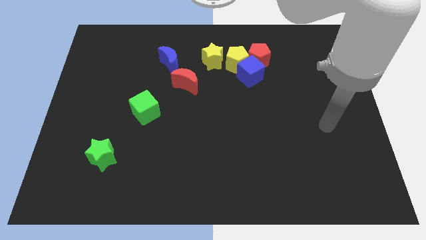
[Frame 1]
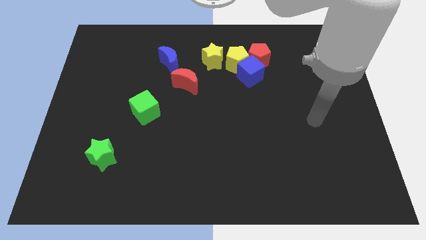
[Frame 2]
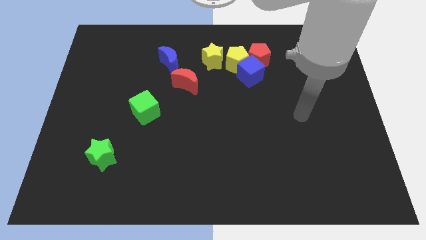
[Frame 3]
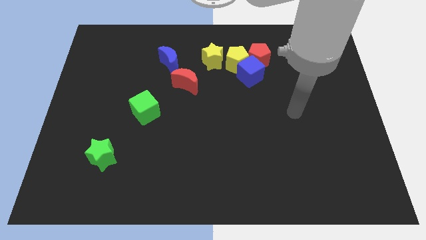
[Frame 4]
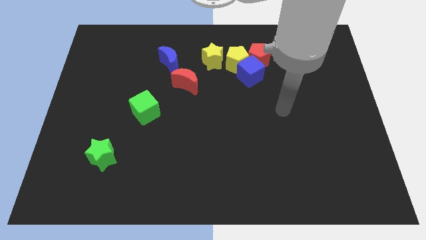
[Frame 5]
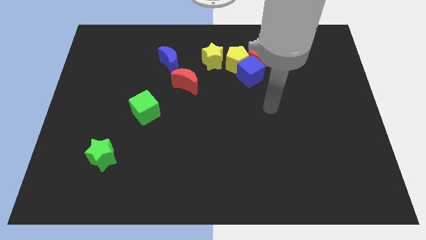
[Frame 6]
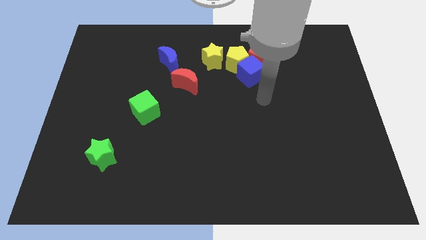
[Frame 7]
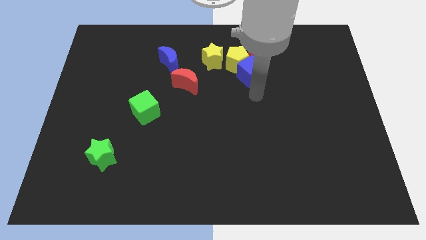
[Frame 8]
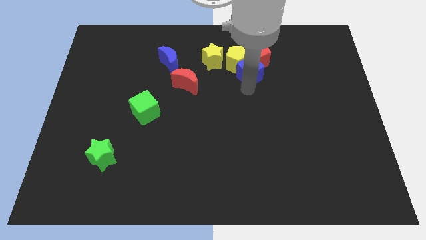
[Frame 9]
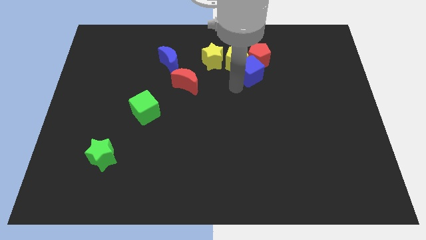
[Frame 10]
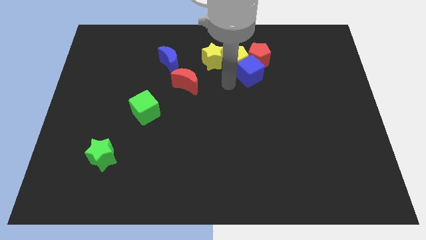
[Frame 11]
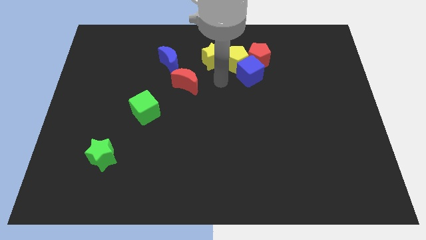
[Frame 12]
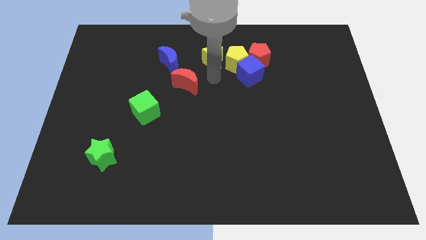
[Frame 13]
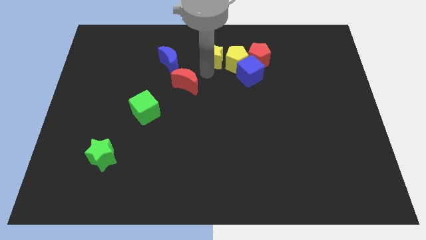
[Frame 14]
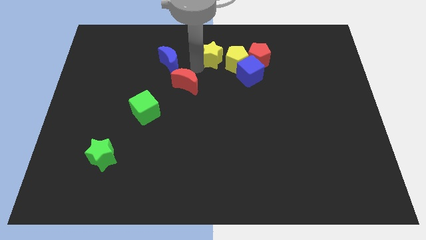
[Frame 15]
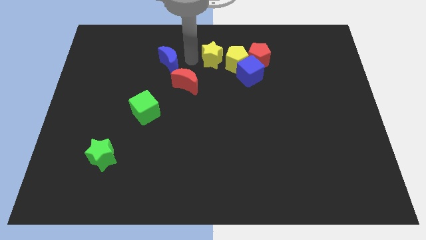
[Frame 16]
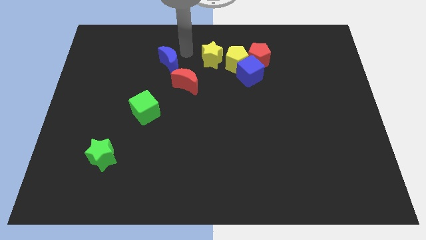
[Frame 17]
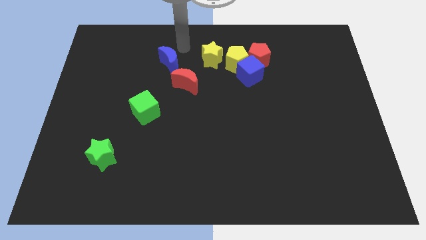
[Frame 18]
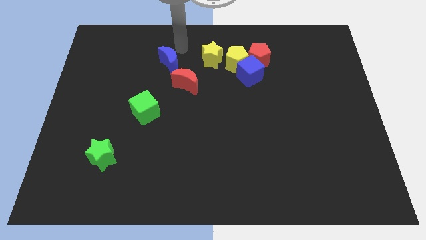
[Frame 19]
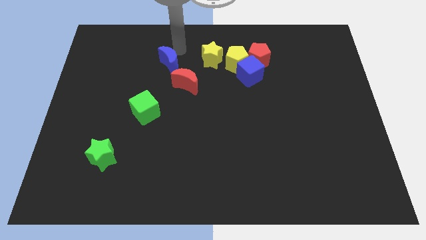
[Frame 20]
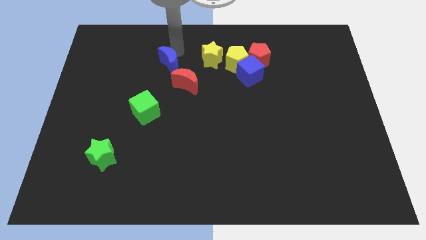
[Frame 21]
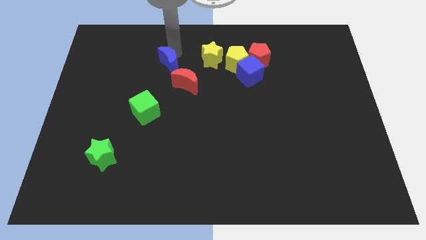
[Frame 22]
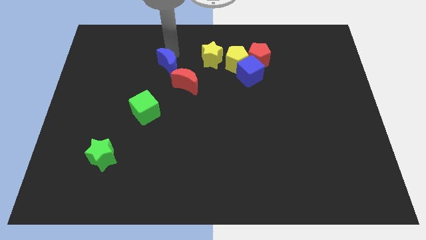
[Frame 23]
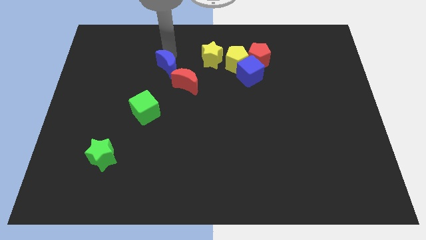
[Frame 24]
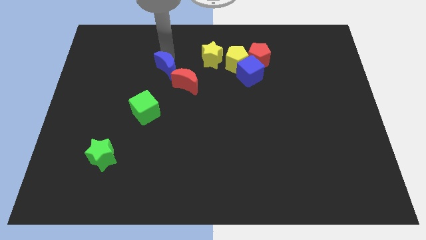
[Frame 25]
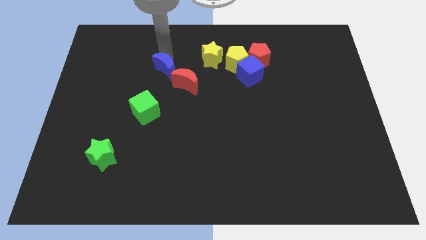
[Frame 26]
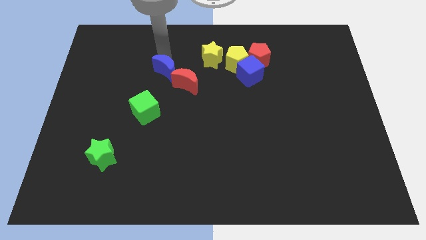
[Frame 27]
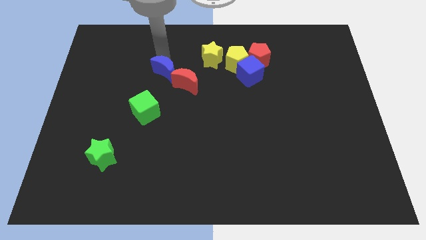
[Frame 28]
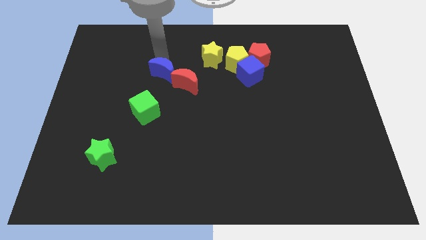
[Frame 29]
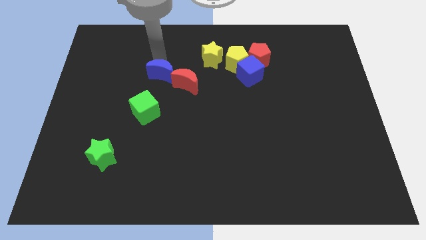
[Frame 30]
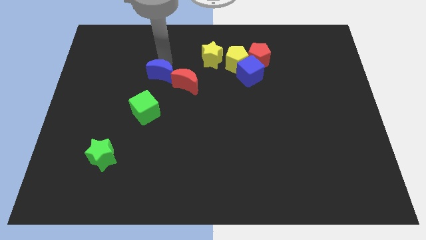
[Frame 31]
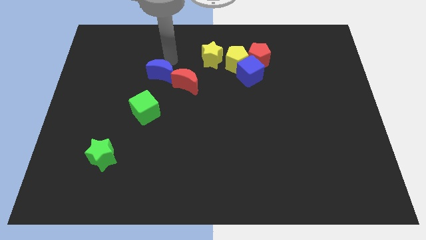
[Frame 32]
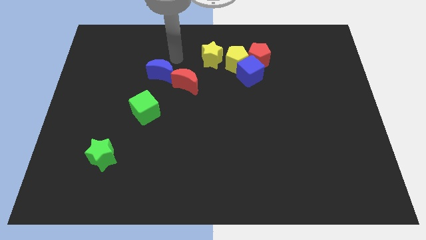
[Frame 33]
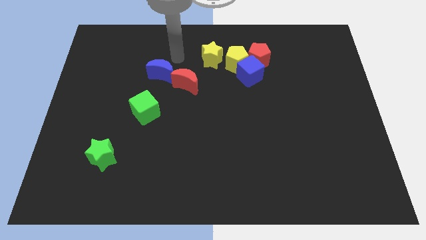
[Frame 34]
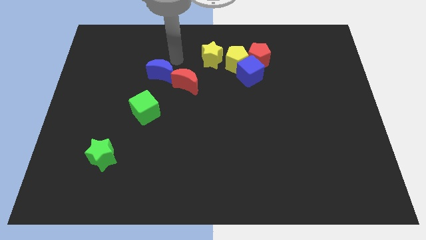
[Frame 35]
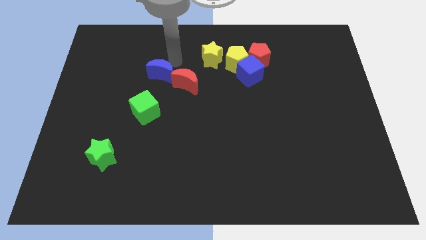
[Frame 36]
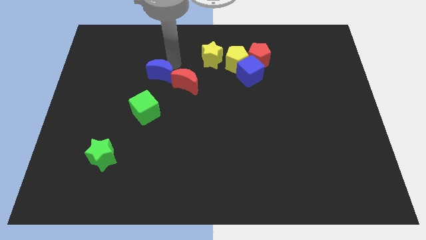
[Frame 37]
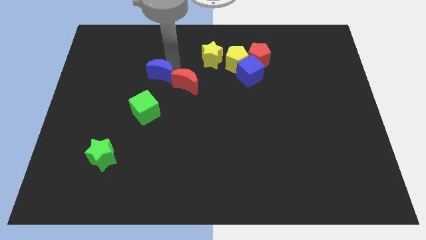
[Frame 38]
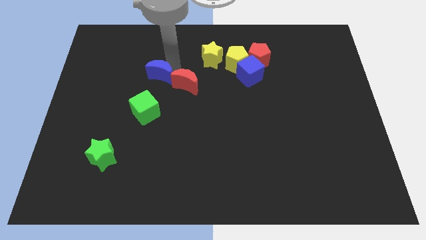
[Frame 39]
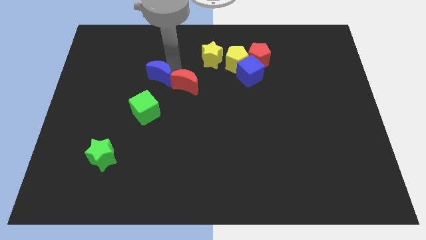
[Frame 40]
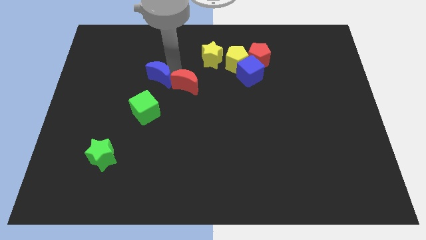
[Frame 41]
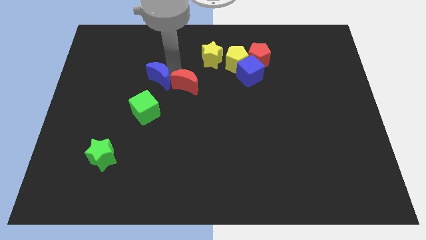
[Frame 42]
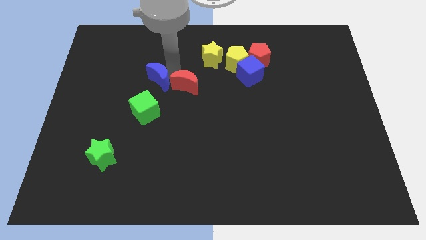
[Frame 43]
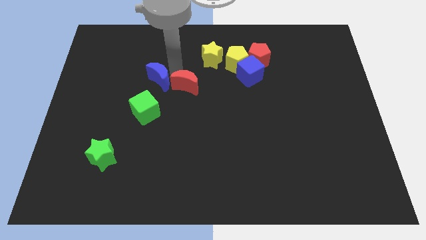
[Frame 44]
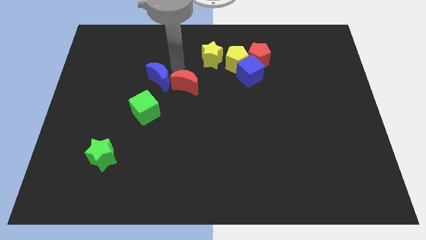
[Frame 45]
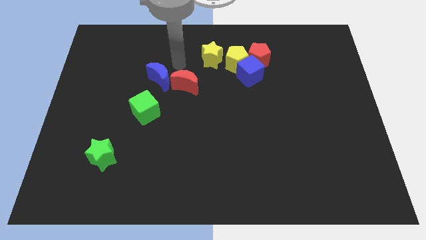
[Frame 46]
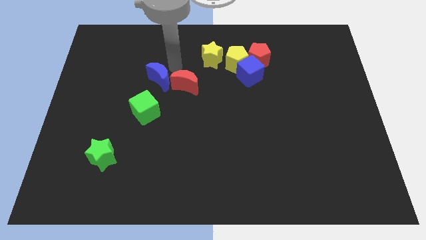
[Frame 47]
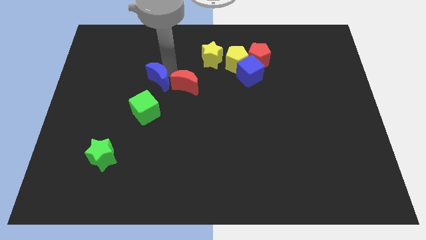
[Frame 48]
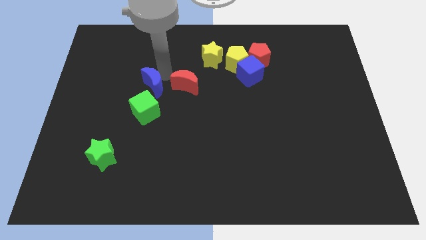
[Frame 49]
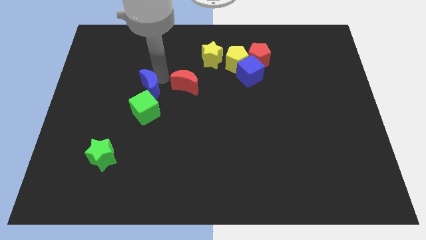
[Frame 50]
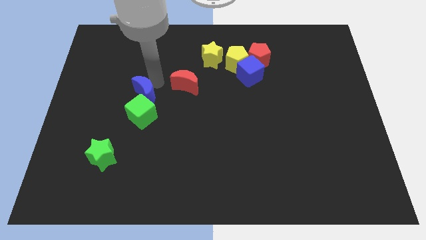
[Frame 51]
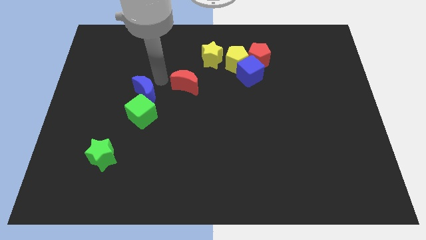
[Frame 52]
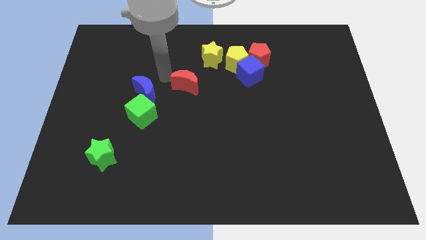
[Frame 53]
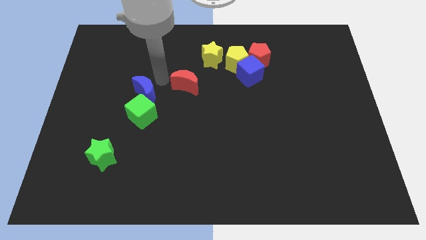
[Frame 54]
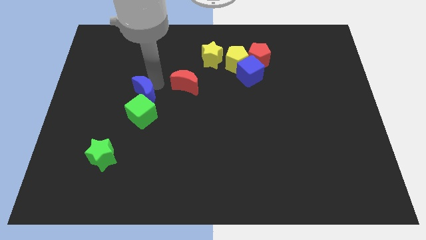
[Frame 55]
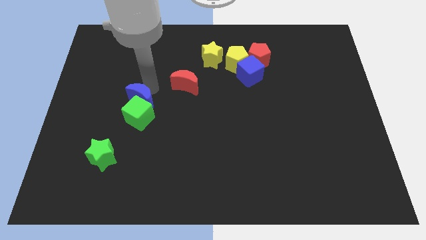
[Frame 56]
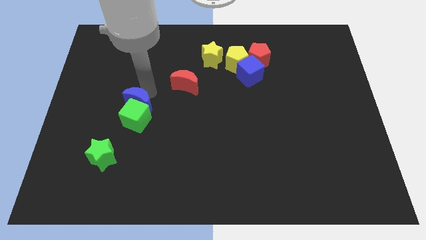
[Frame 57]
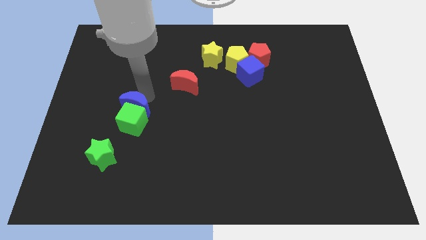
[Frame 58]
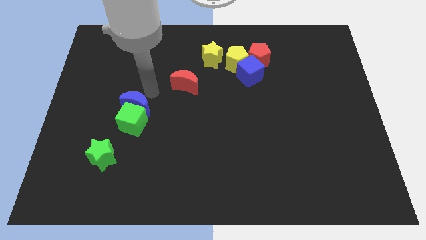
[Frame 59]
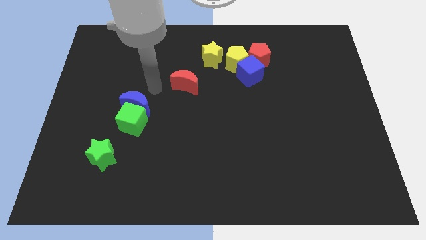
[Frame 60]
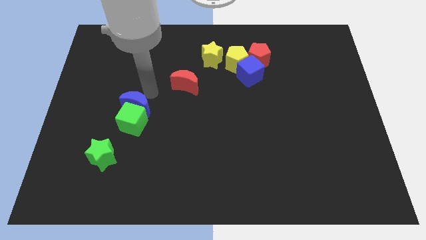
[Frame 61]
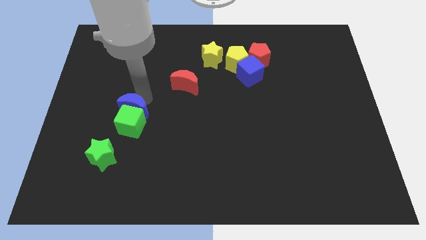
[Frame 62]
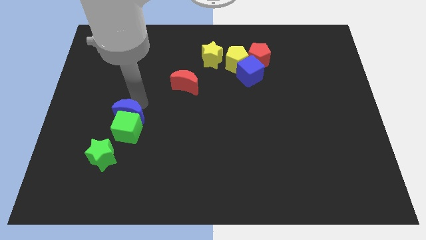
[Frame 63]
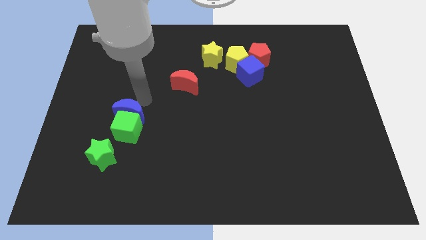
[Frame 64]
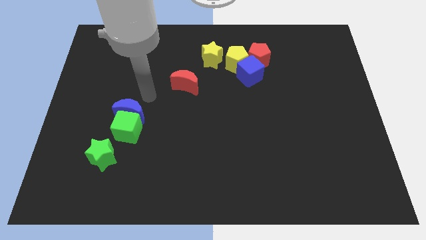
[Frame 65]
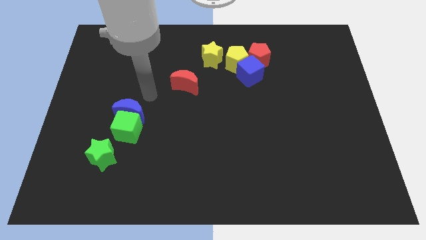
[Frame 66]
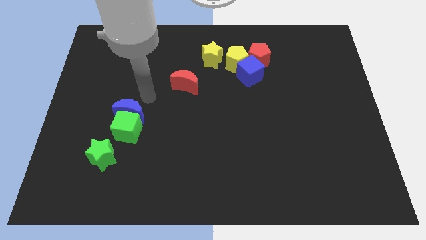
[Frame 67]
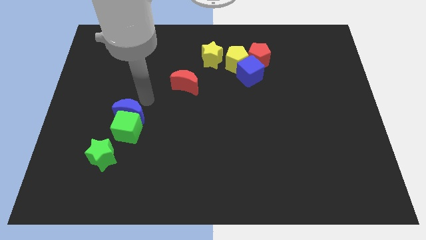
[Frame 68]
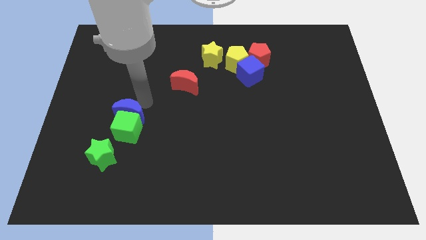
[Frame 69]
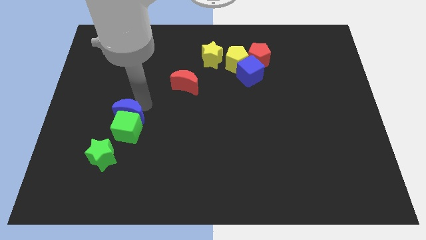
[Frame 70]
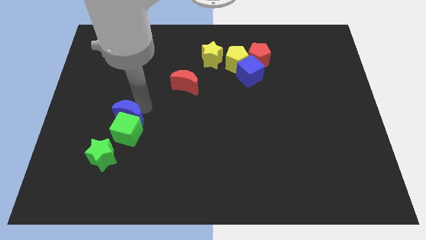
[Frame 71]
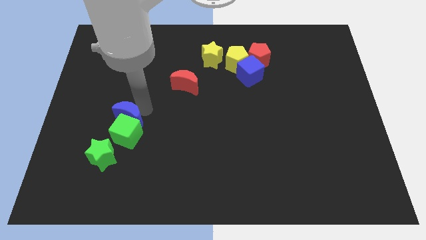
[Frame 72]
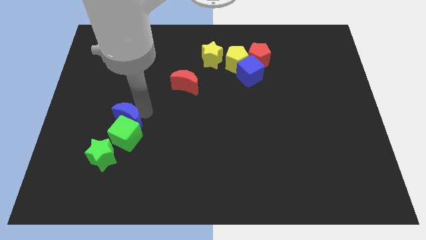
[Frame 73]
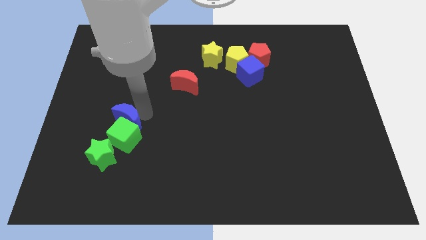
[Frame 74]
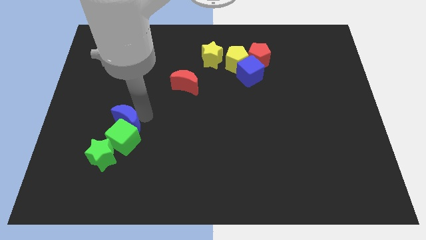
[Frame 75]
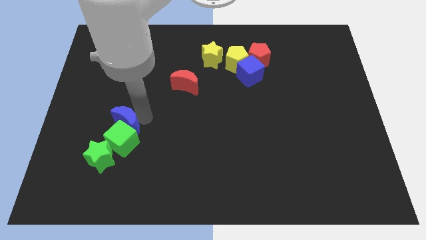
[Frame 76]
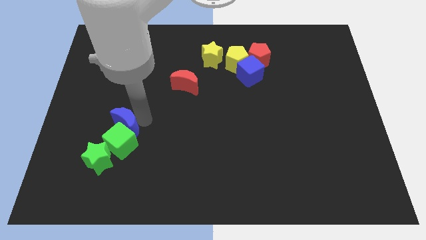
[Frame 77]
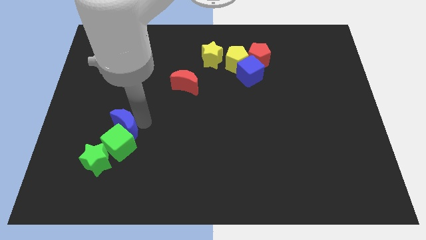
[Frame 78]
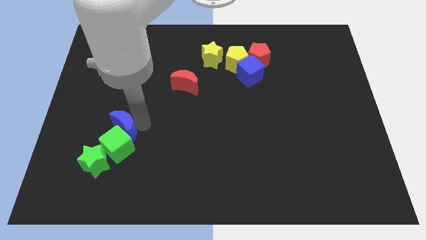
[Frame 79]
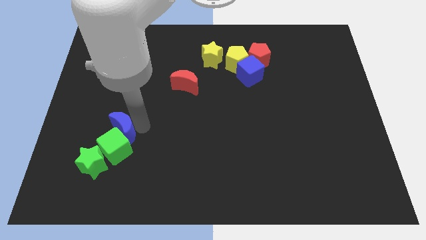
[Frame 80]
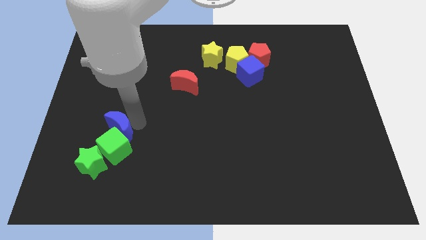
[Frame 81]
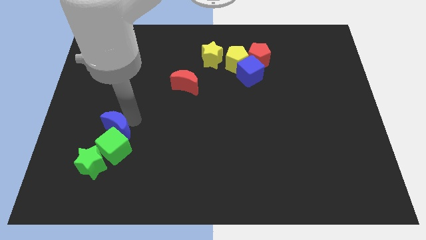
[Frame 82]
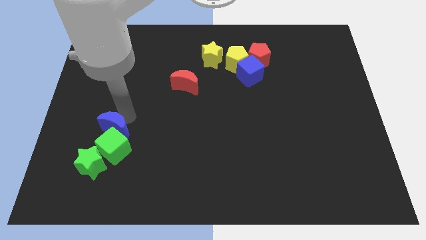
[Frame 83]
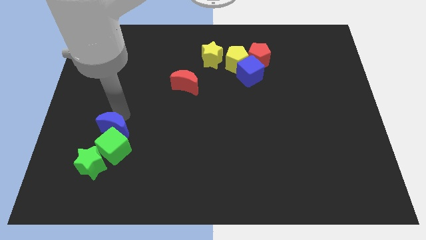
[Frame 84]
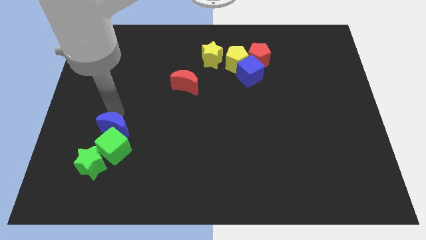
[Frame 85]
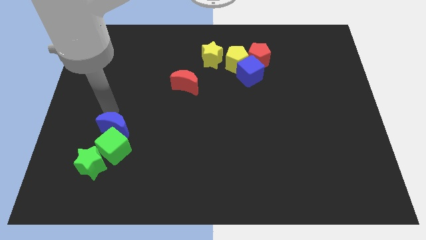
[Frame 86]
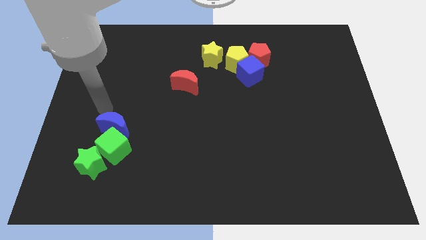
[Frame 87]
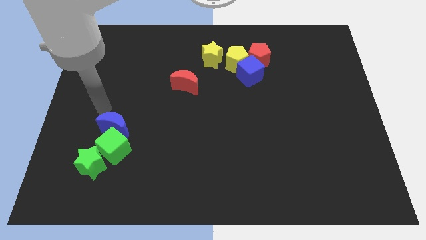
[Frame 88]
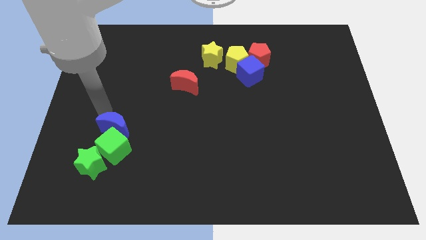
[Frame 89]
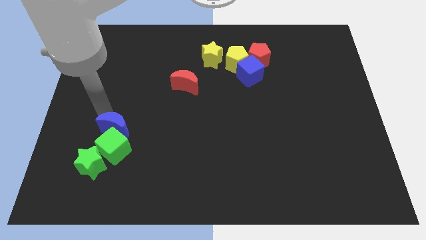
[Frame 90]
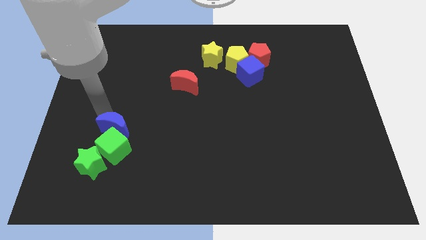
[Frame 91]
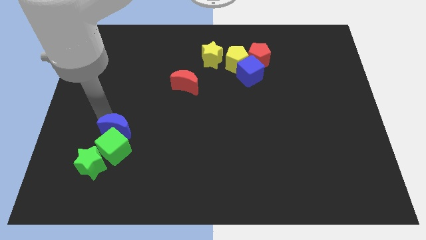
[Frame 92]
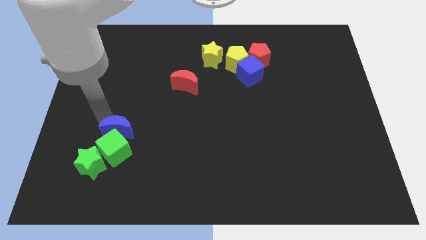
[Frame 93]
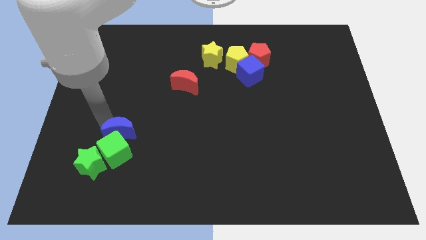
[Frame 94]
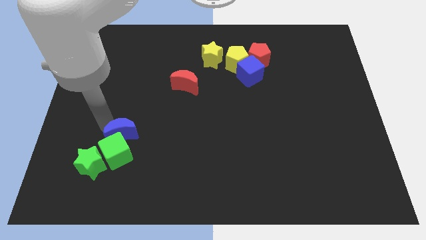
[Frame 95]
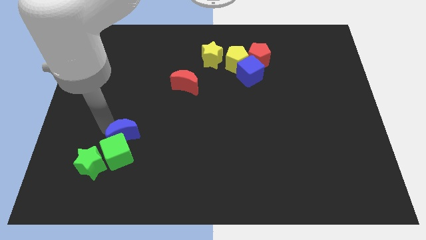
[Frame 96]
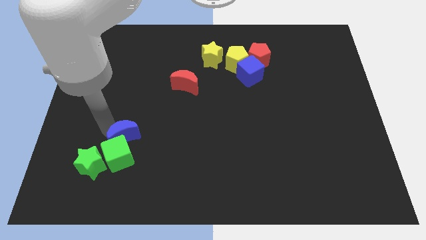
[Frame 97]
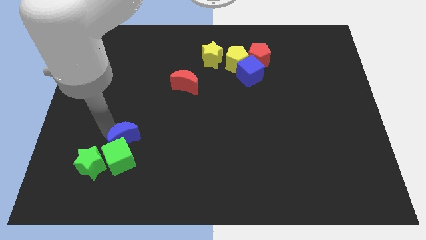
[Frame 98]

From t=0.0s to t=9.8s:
slide the blue moon down
